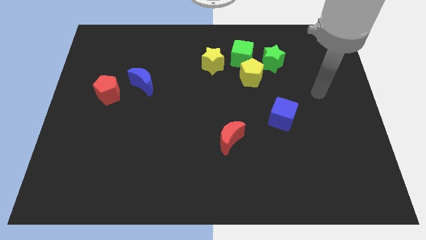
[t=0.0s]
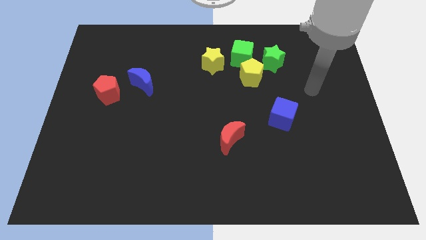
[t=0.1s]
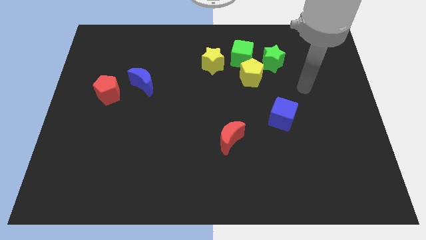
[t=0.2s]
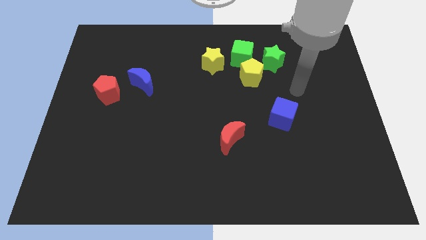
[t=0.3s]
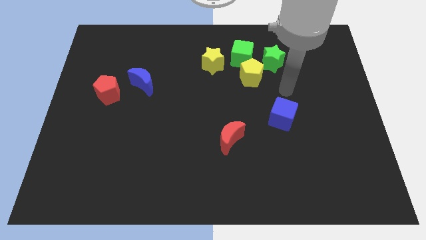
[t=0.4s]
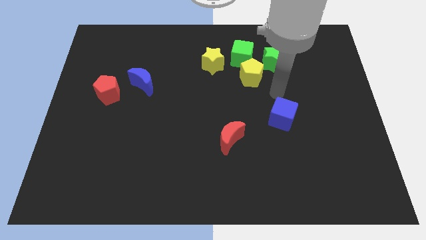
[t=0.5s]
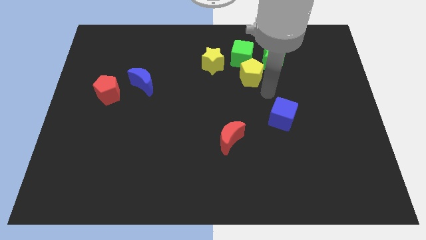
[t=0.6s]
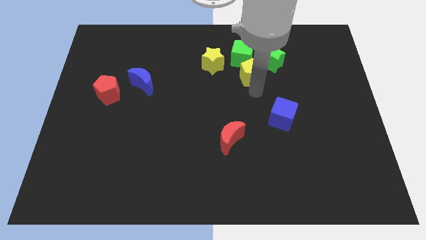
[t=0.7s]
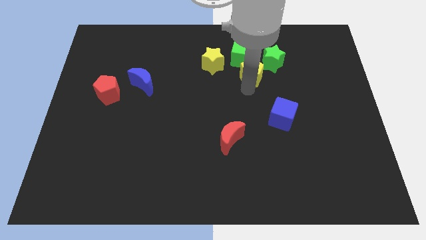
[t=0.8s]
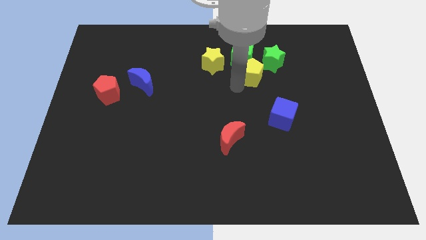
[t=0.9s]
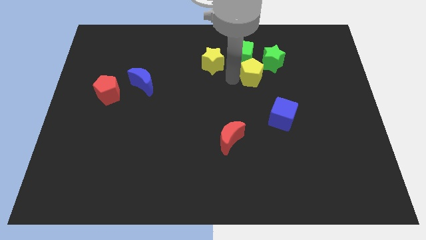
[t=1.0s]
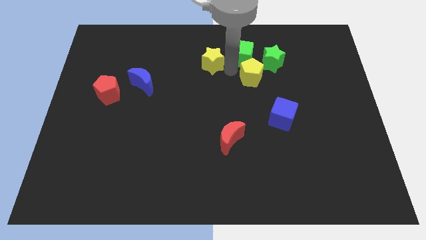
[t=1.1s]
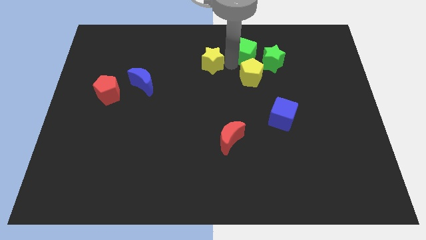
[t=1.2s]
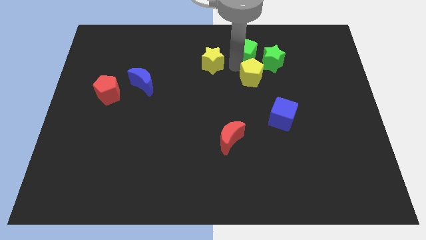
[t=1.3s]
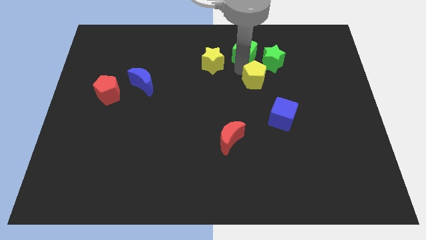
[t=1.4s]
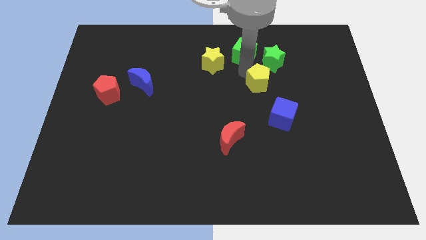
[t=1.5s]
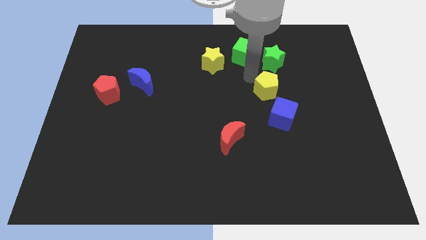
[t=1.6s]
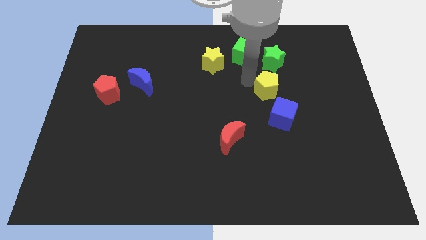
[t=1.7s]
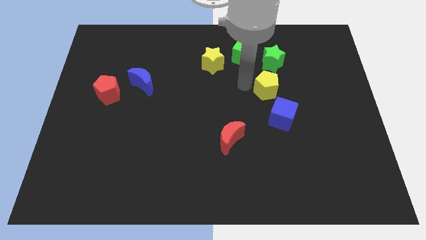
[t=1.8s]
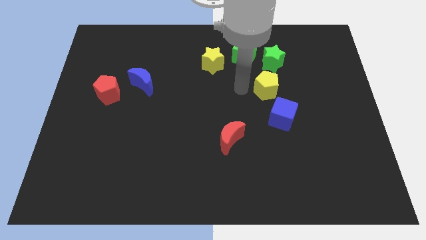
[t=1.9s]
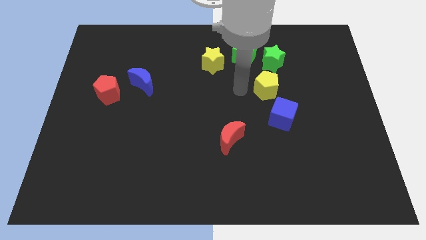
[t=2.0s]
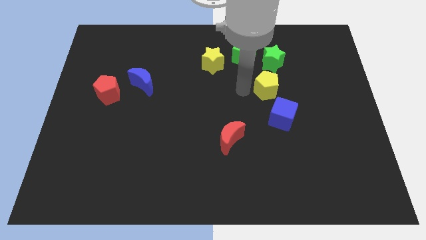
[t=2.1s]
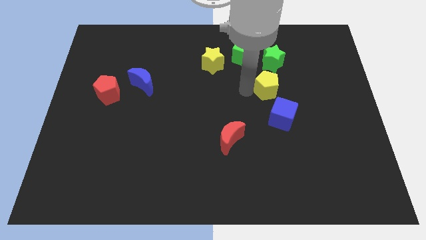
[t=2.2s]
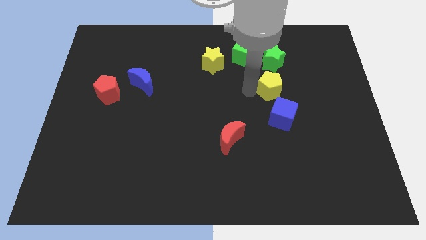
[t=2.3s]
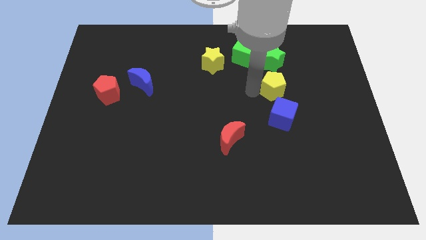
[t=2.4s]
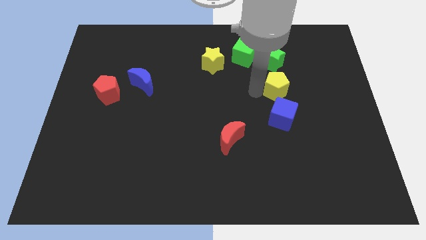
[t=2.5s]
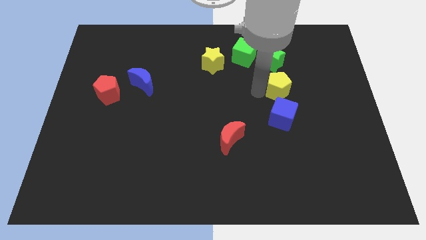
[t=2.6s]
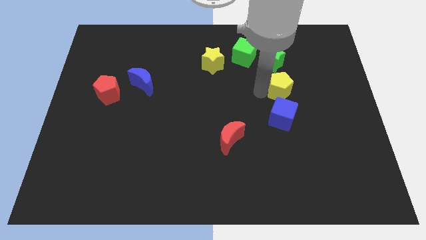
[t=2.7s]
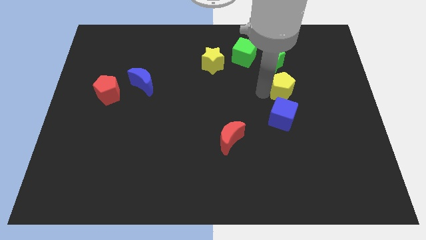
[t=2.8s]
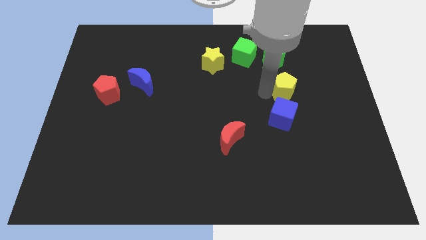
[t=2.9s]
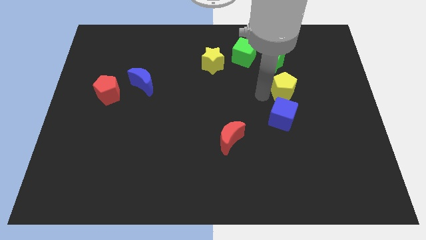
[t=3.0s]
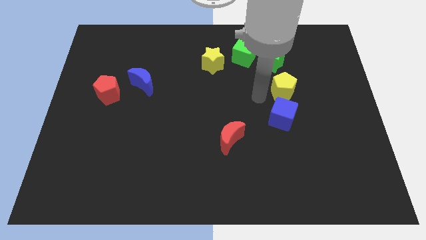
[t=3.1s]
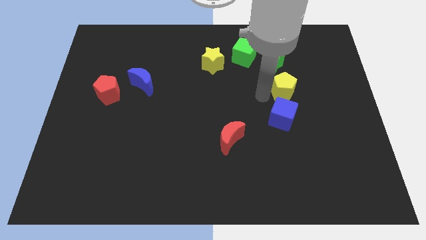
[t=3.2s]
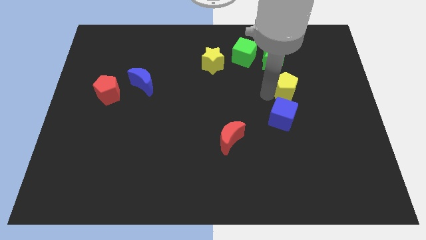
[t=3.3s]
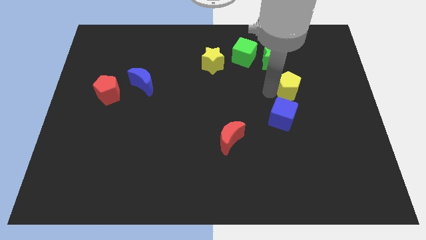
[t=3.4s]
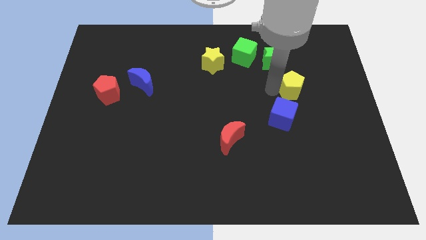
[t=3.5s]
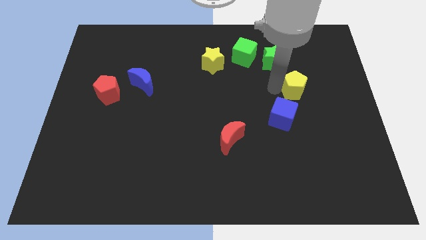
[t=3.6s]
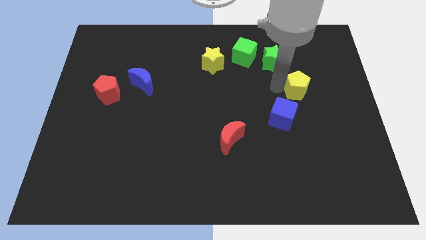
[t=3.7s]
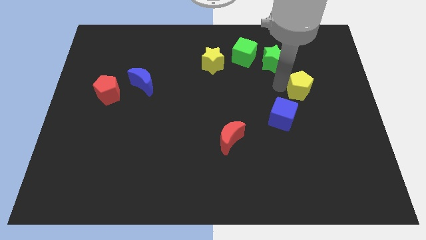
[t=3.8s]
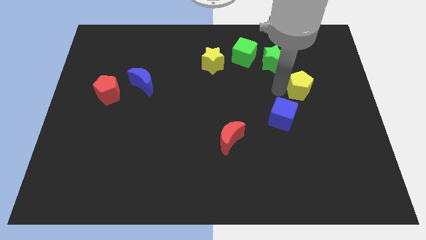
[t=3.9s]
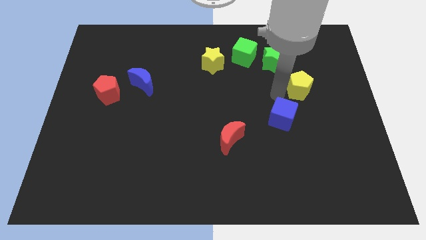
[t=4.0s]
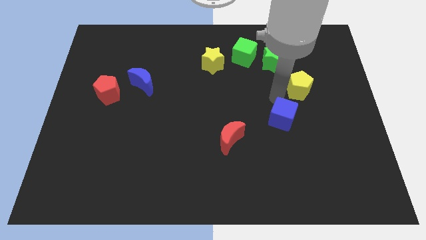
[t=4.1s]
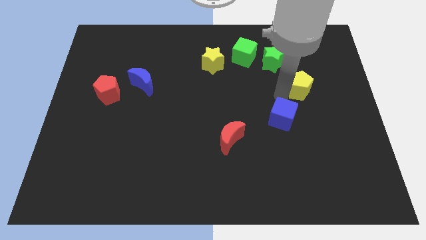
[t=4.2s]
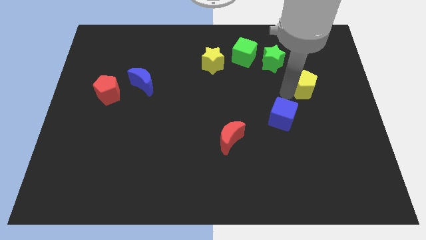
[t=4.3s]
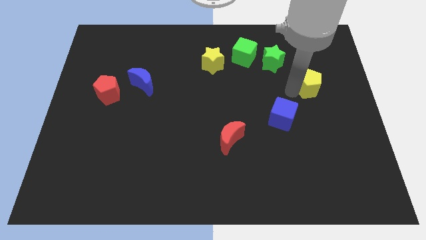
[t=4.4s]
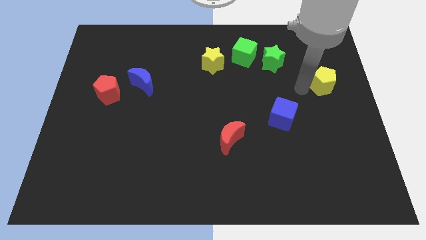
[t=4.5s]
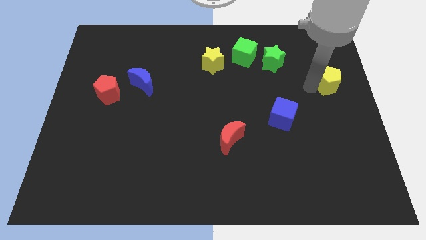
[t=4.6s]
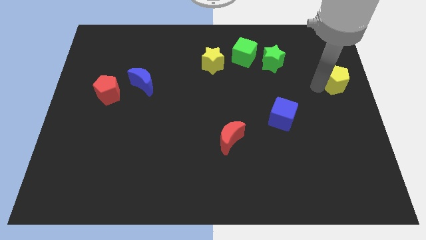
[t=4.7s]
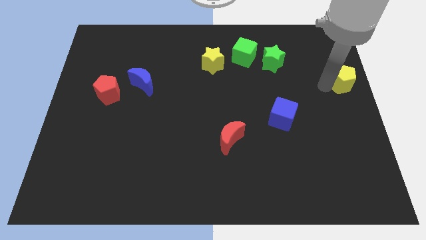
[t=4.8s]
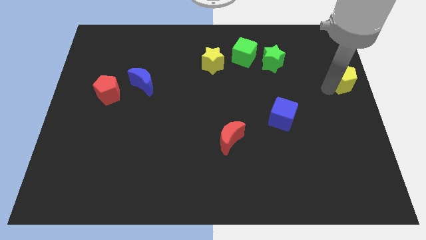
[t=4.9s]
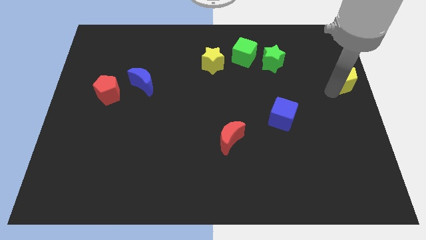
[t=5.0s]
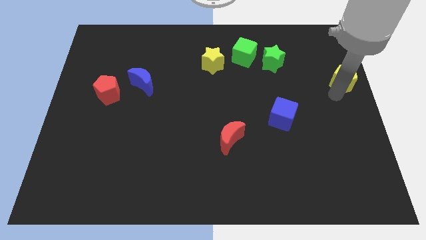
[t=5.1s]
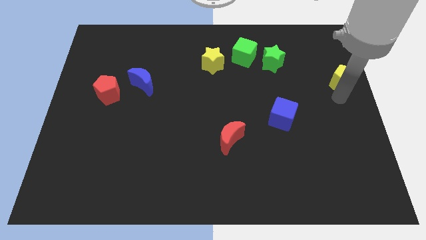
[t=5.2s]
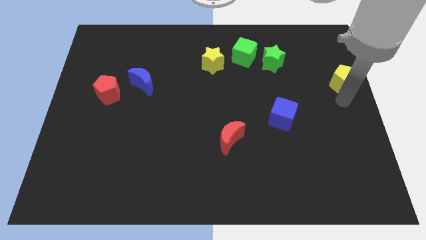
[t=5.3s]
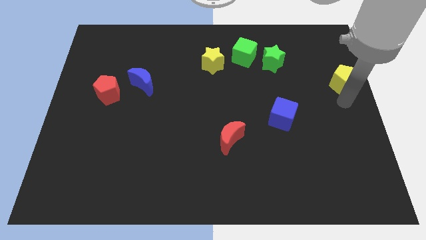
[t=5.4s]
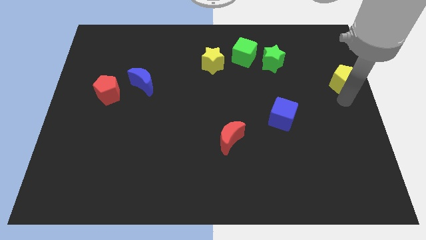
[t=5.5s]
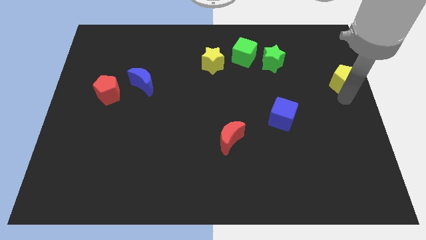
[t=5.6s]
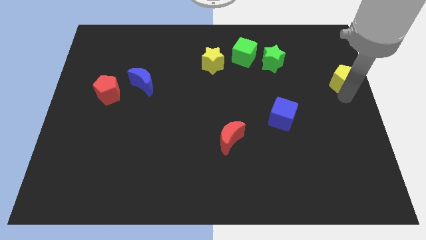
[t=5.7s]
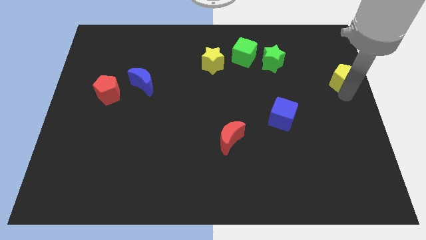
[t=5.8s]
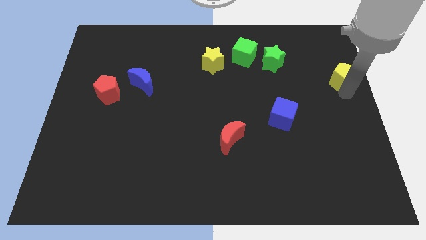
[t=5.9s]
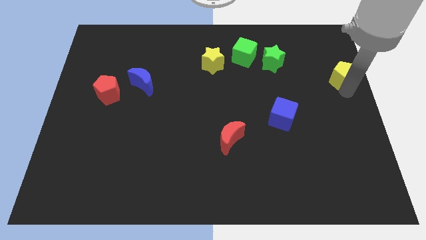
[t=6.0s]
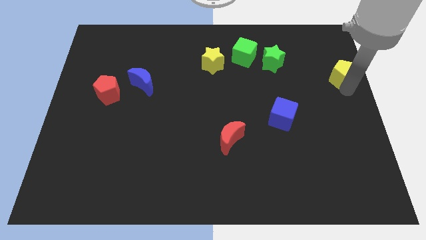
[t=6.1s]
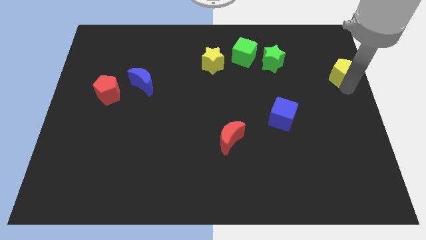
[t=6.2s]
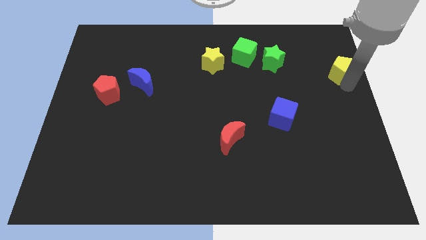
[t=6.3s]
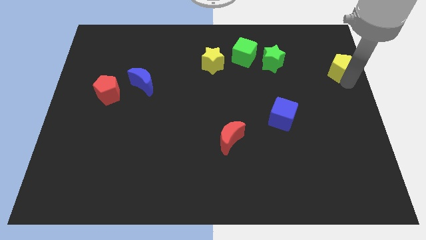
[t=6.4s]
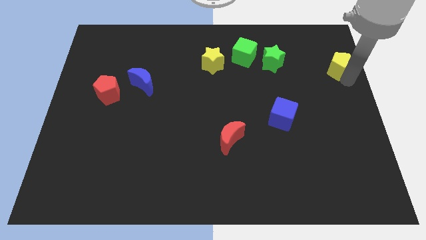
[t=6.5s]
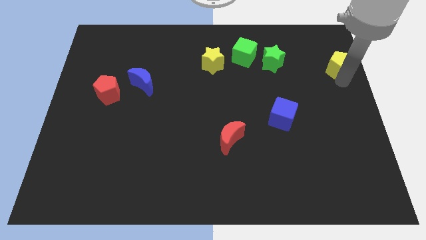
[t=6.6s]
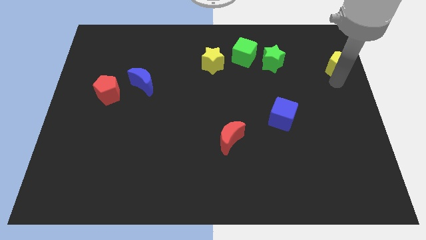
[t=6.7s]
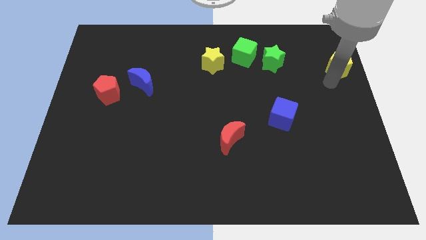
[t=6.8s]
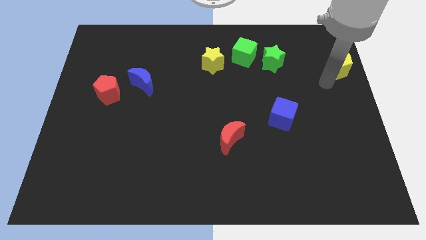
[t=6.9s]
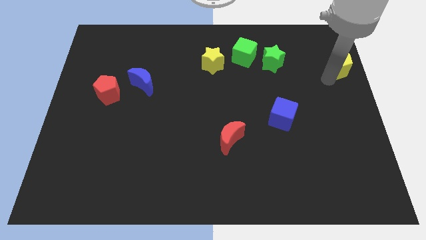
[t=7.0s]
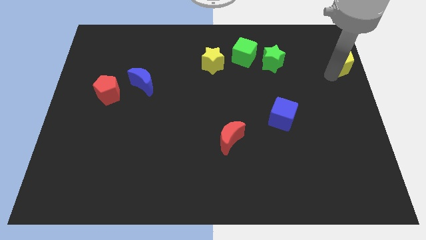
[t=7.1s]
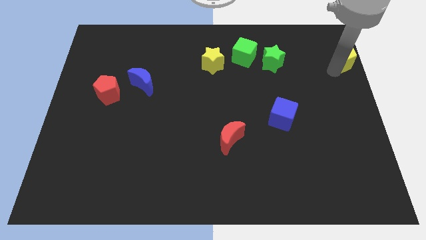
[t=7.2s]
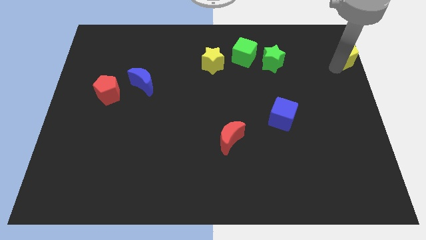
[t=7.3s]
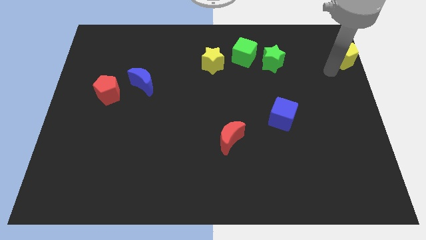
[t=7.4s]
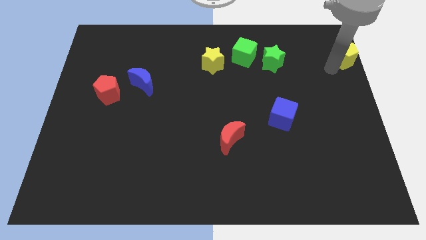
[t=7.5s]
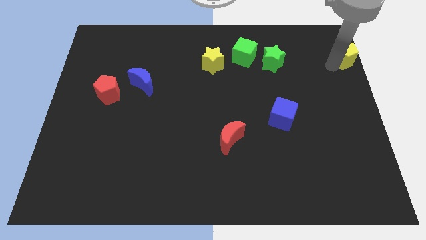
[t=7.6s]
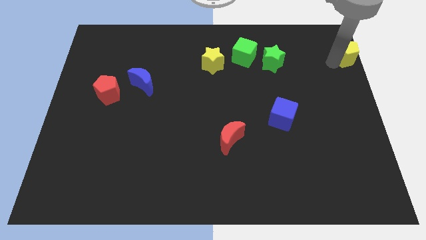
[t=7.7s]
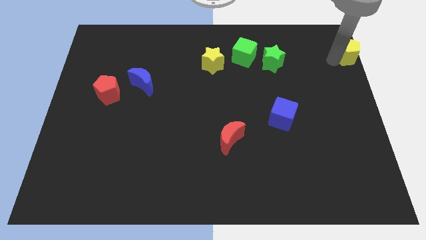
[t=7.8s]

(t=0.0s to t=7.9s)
slide the yellow pentagon to the upper right corner
